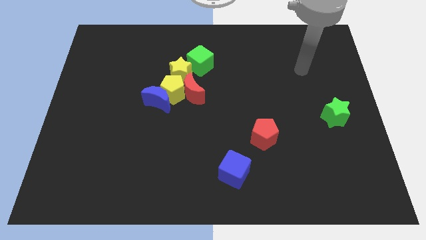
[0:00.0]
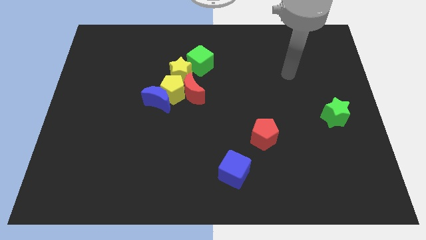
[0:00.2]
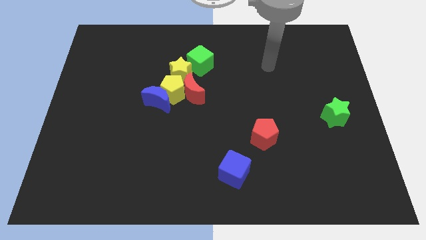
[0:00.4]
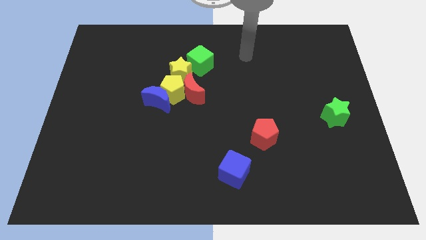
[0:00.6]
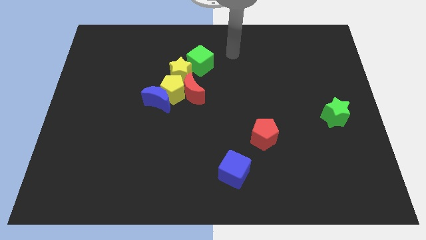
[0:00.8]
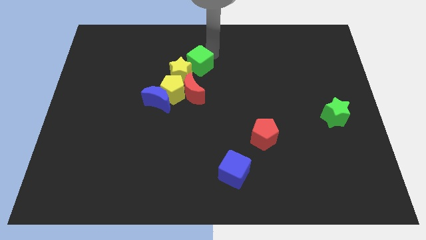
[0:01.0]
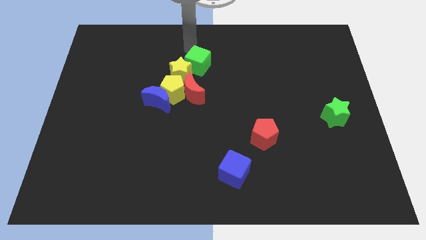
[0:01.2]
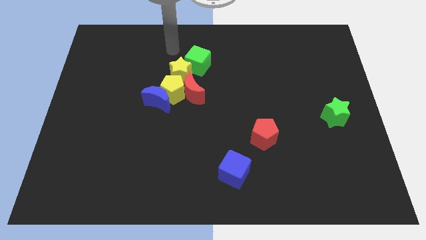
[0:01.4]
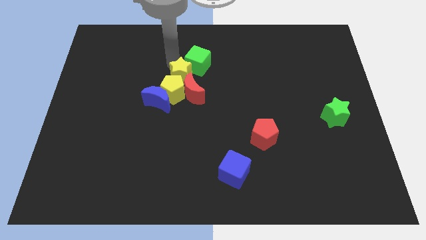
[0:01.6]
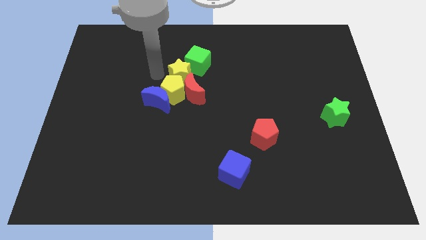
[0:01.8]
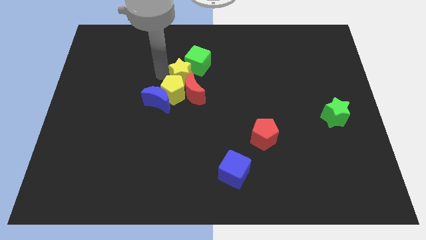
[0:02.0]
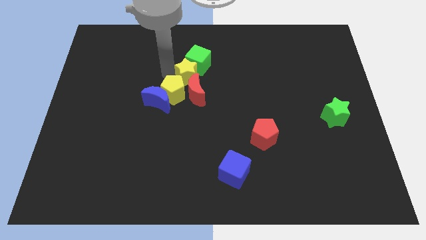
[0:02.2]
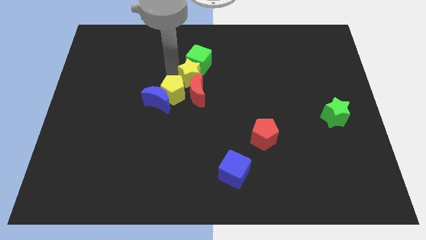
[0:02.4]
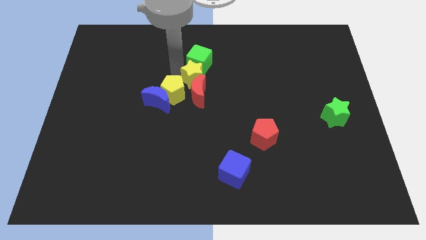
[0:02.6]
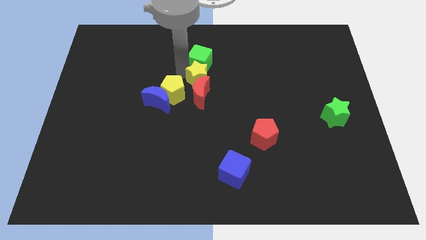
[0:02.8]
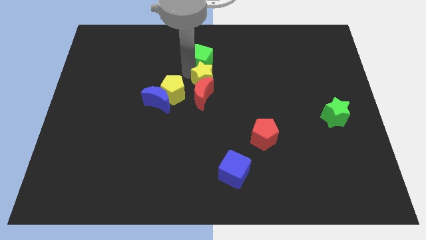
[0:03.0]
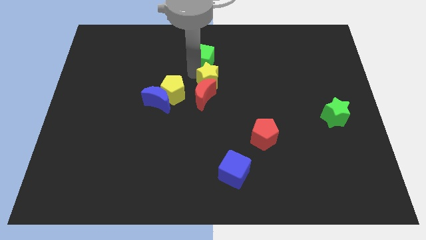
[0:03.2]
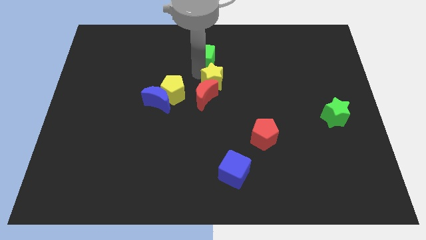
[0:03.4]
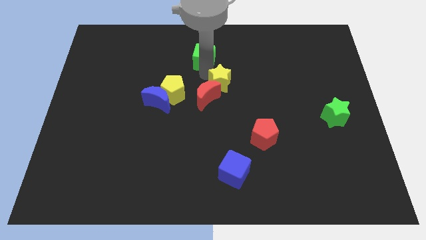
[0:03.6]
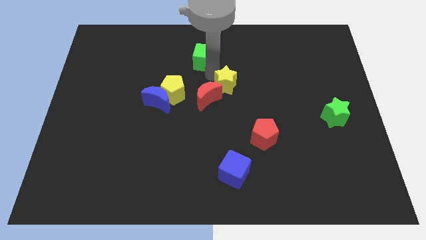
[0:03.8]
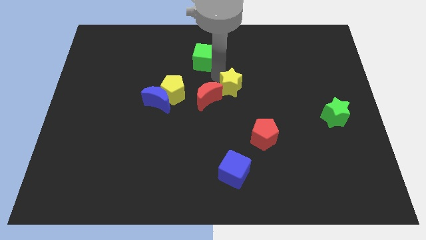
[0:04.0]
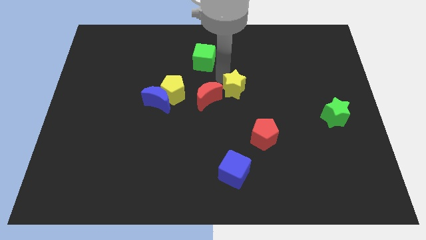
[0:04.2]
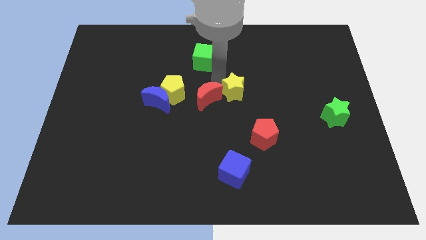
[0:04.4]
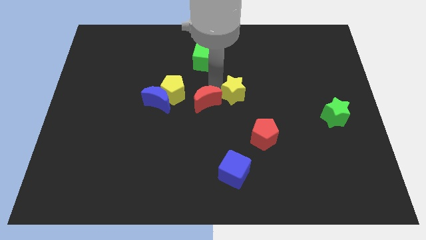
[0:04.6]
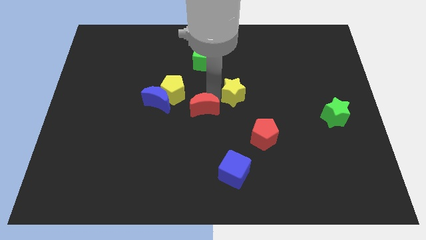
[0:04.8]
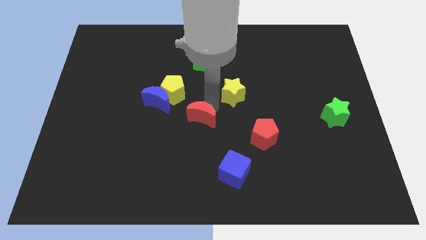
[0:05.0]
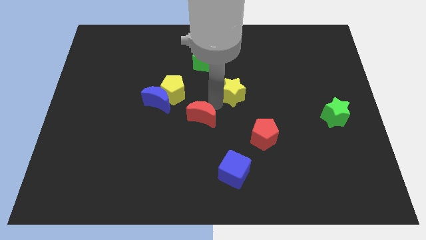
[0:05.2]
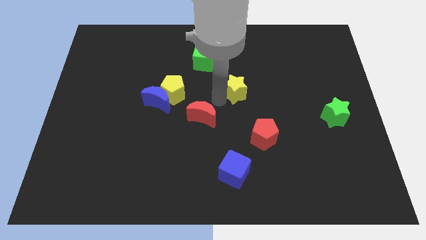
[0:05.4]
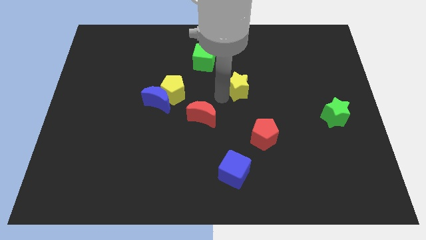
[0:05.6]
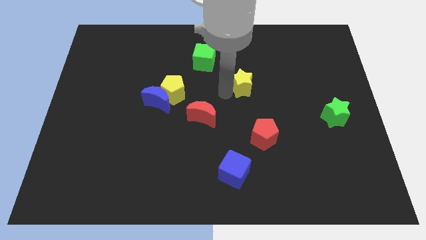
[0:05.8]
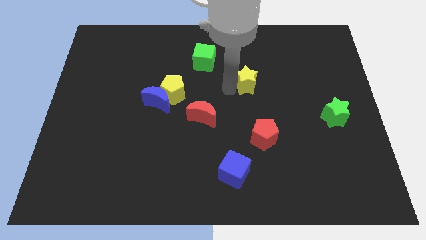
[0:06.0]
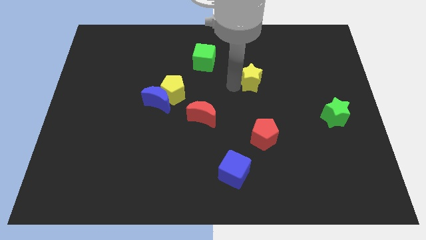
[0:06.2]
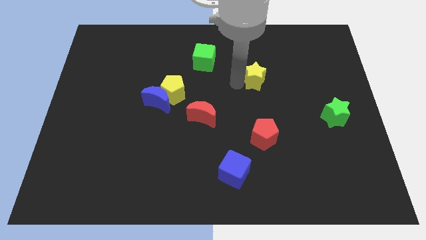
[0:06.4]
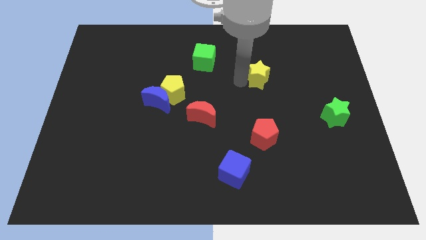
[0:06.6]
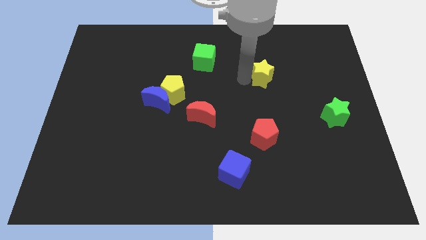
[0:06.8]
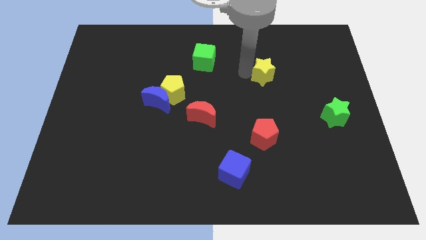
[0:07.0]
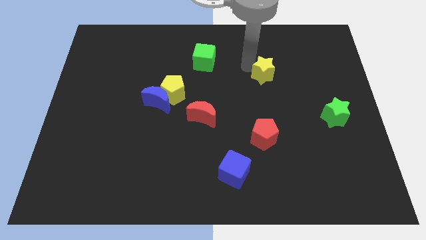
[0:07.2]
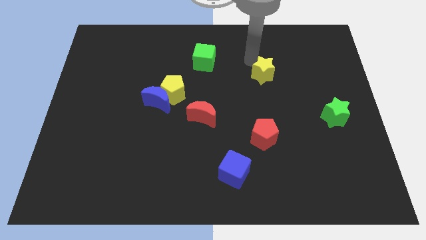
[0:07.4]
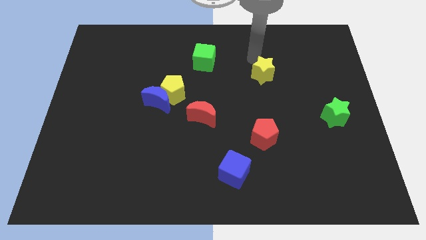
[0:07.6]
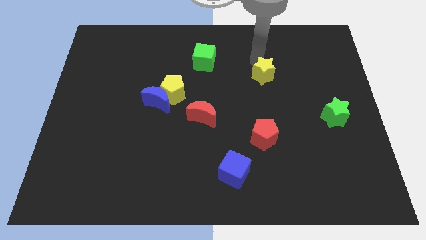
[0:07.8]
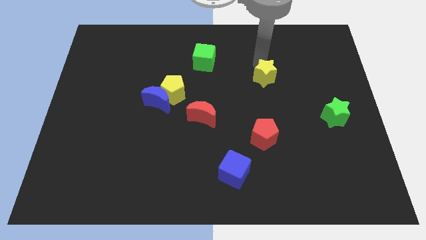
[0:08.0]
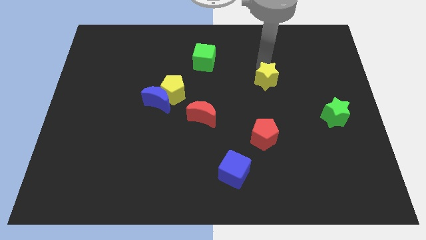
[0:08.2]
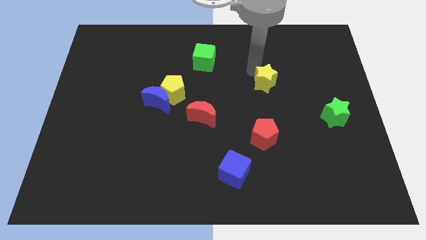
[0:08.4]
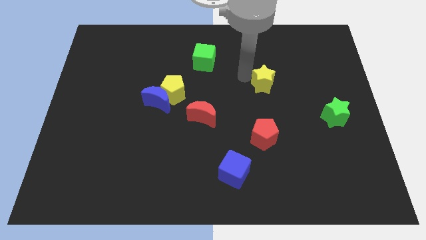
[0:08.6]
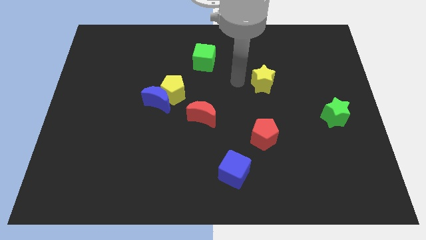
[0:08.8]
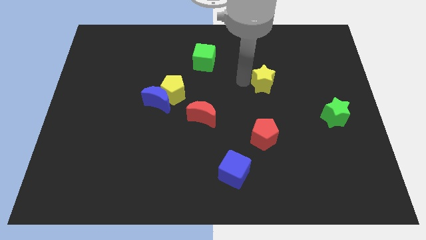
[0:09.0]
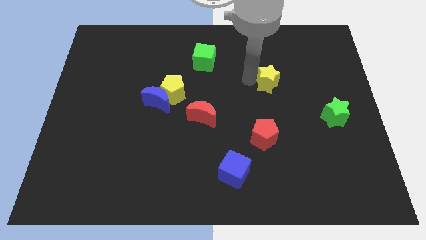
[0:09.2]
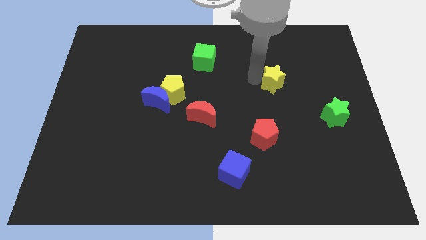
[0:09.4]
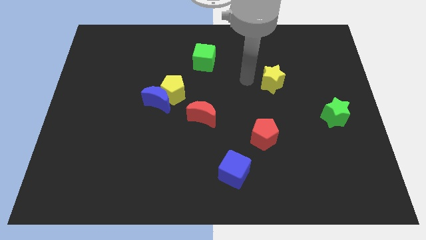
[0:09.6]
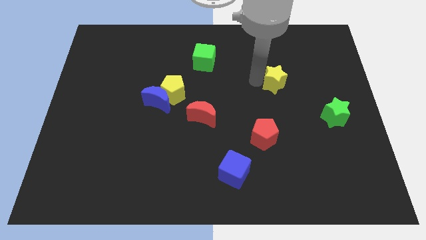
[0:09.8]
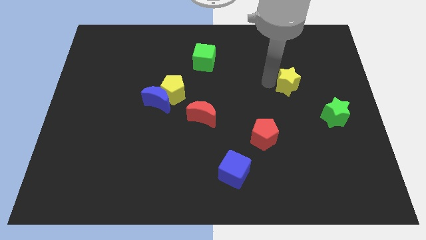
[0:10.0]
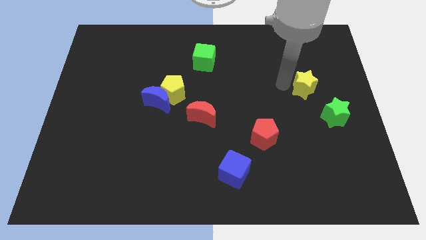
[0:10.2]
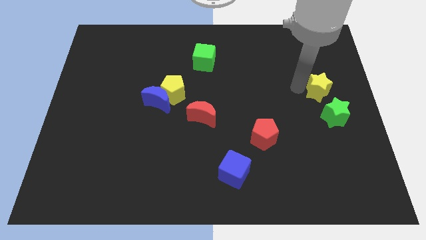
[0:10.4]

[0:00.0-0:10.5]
push the yellow star to the center right

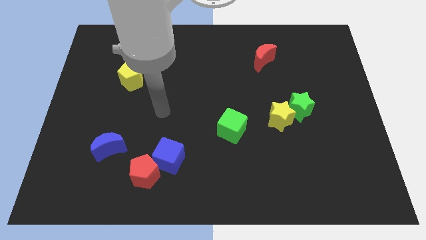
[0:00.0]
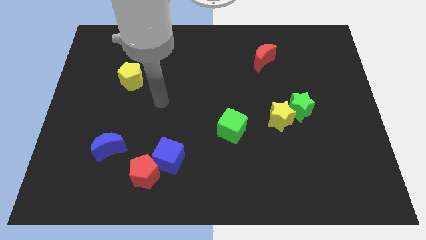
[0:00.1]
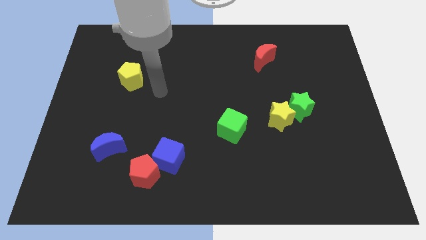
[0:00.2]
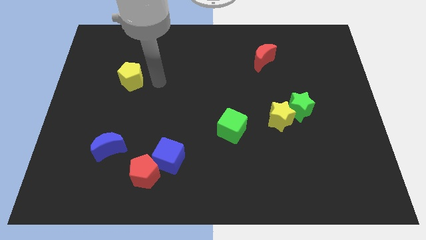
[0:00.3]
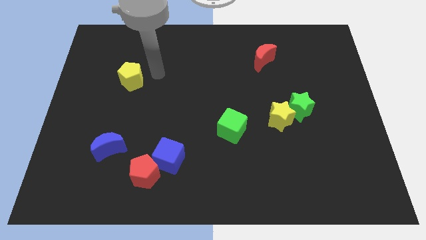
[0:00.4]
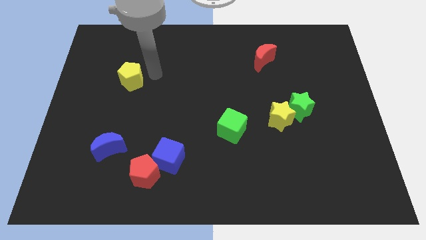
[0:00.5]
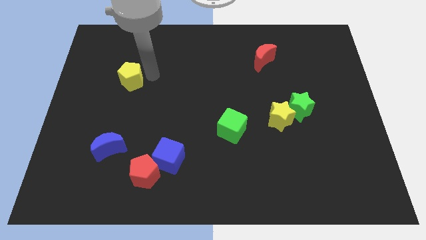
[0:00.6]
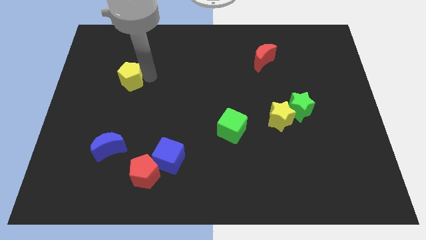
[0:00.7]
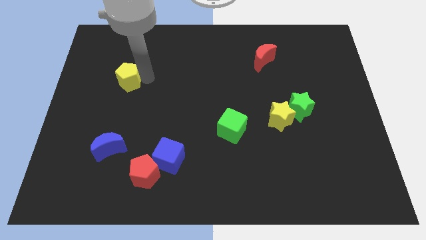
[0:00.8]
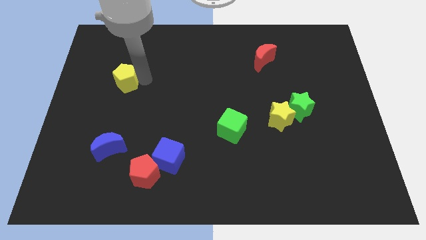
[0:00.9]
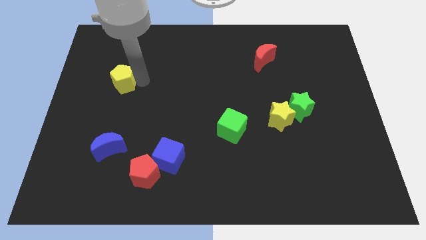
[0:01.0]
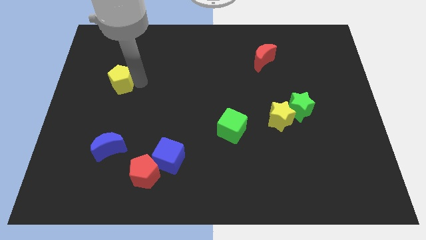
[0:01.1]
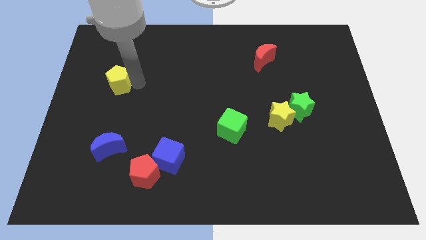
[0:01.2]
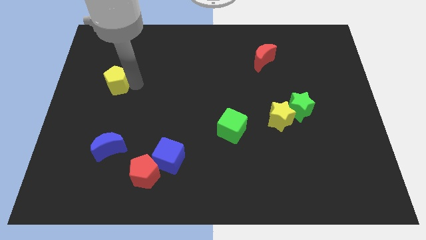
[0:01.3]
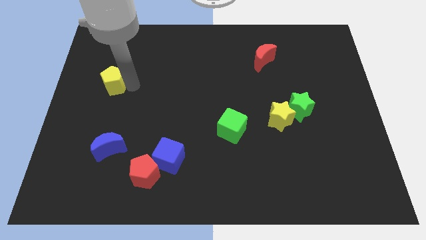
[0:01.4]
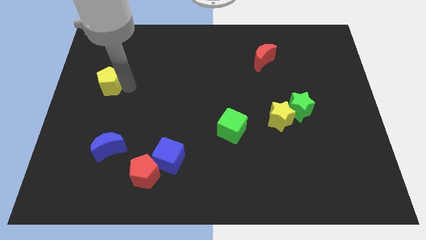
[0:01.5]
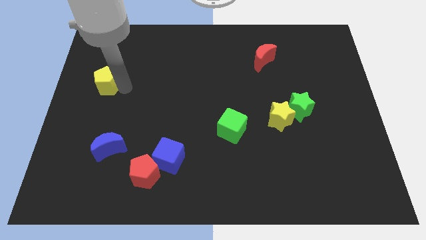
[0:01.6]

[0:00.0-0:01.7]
put the yellow pentagon to the left side of the board
